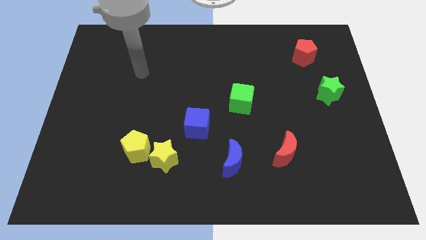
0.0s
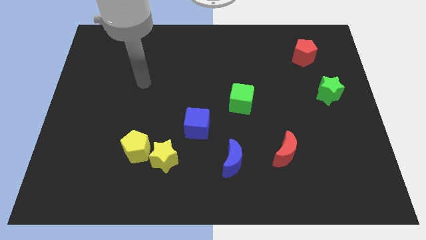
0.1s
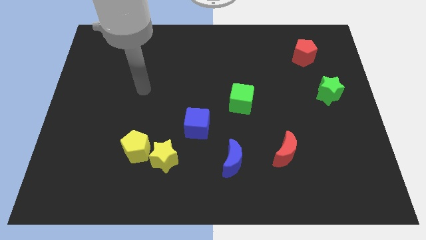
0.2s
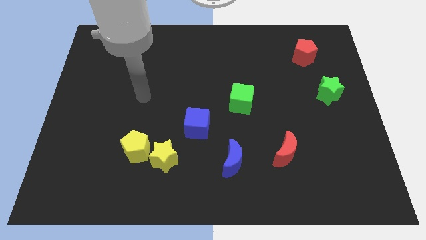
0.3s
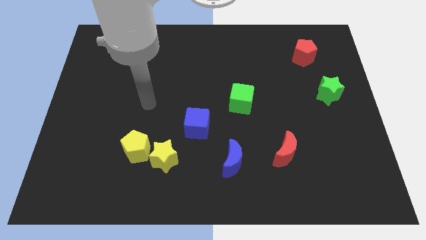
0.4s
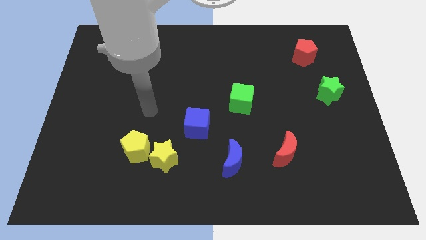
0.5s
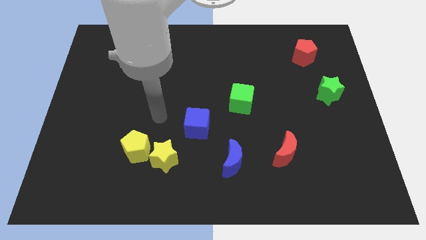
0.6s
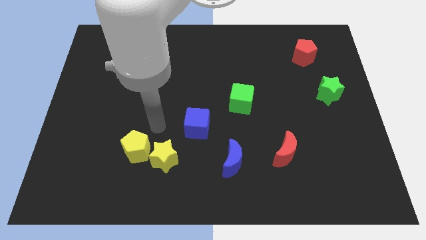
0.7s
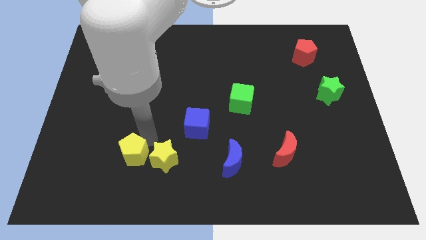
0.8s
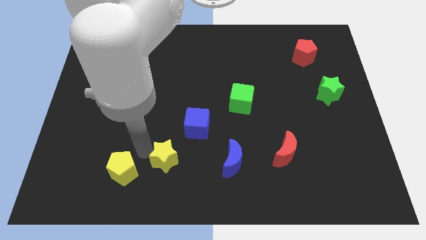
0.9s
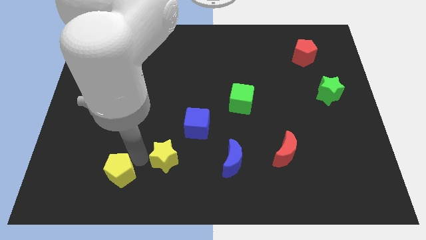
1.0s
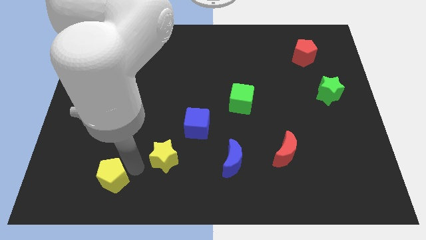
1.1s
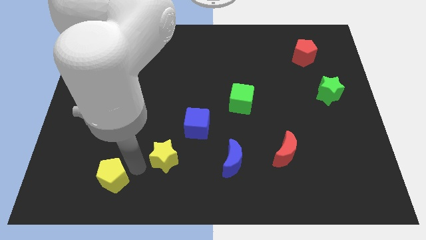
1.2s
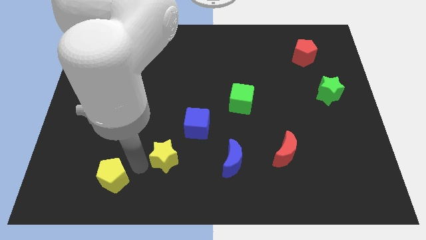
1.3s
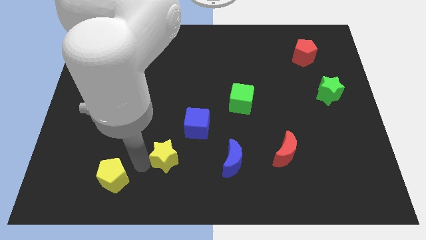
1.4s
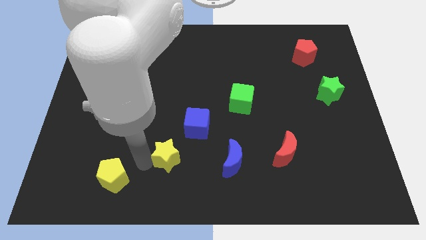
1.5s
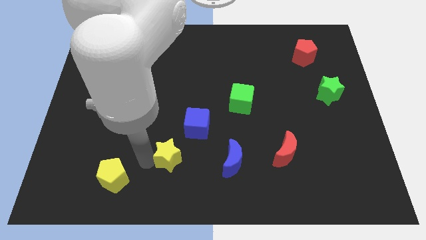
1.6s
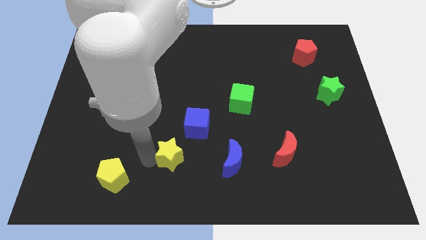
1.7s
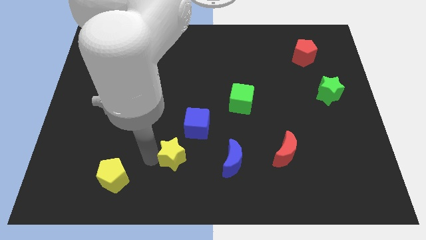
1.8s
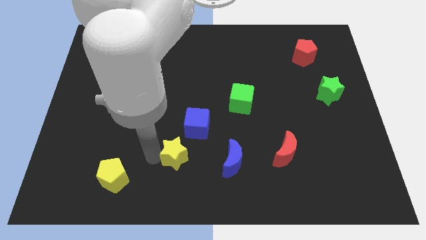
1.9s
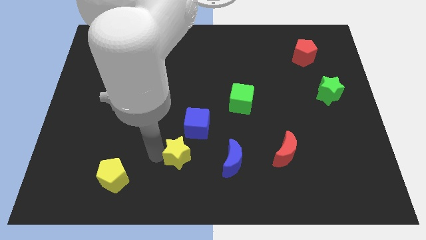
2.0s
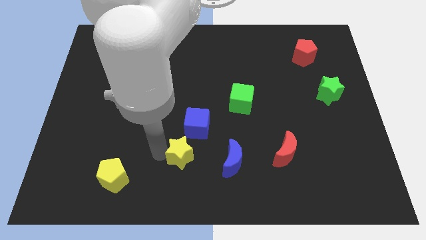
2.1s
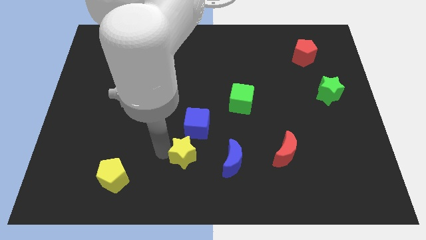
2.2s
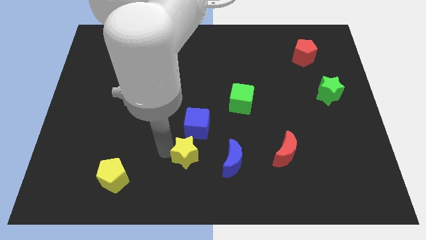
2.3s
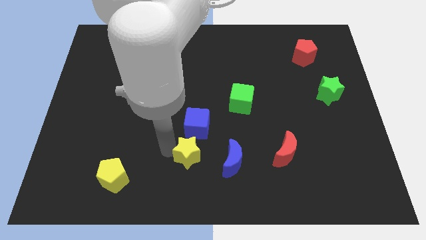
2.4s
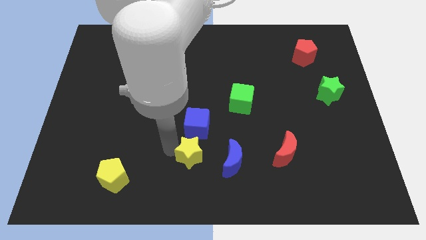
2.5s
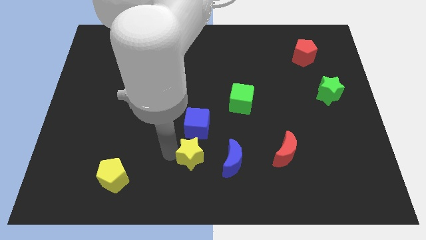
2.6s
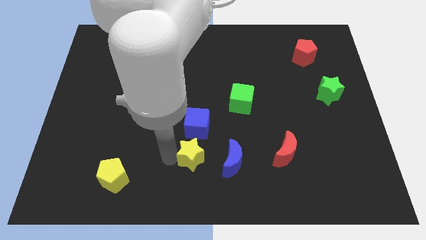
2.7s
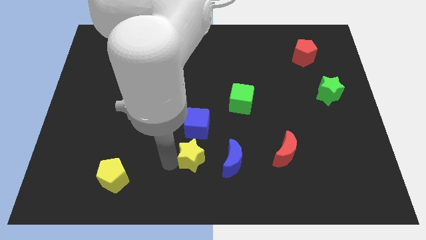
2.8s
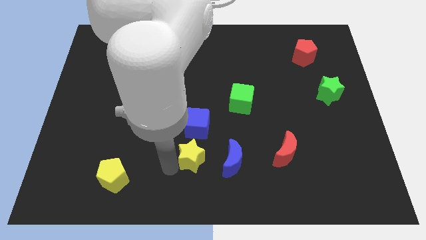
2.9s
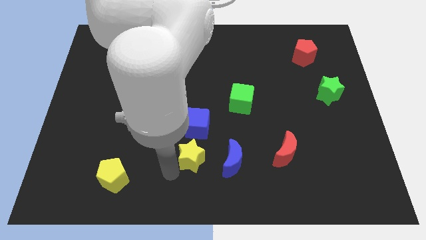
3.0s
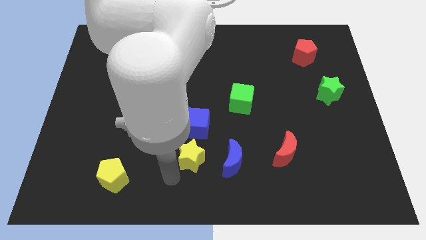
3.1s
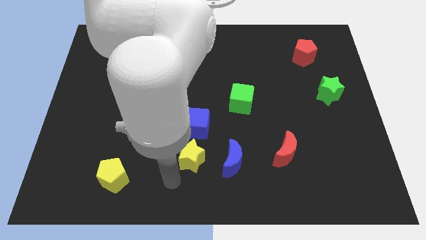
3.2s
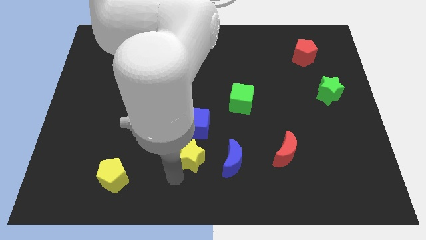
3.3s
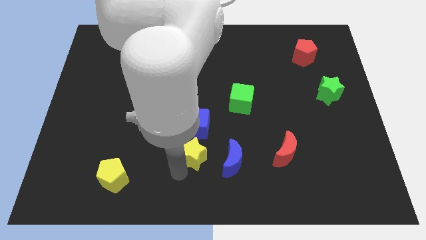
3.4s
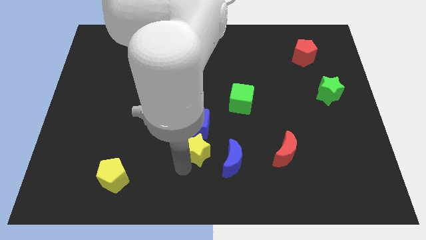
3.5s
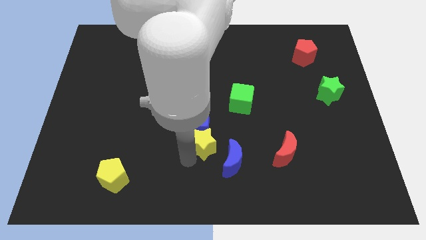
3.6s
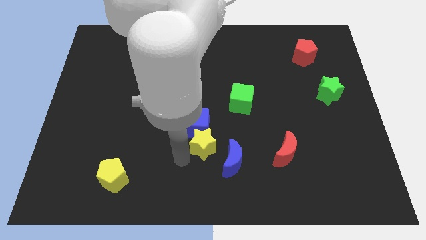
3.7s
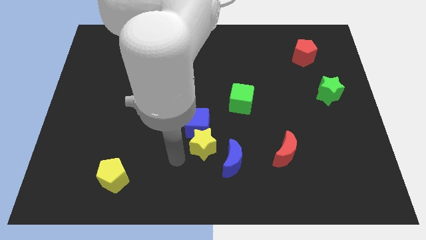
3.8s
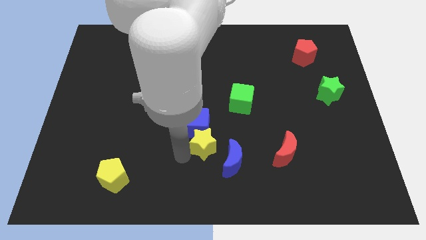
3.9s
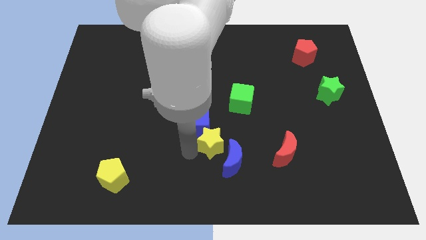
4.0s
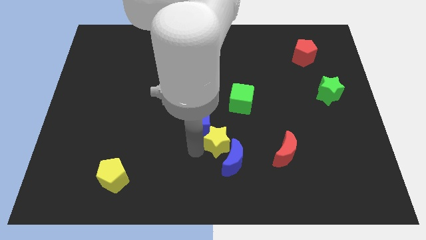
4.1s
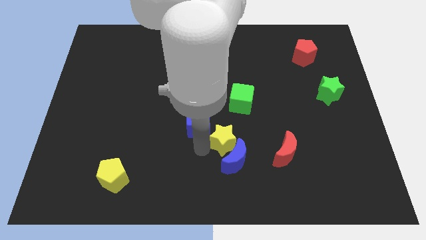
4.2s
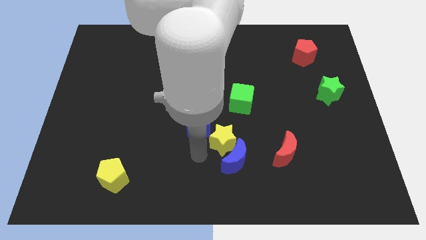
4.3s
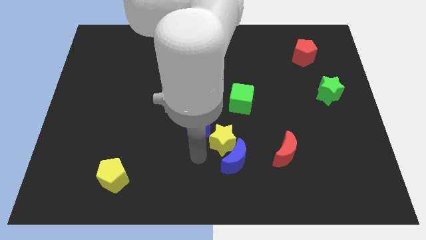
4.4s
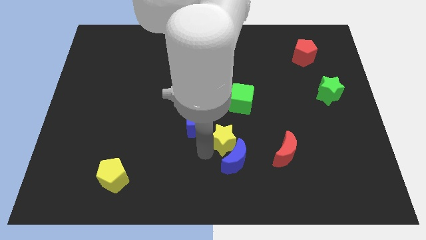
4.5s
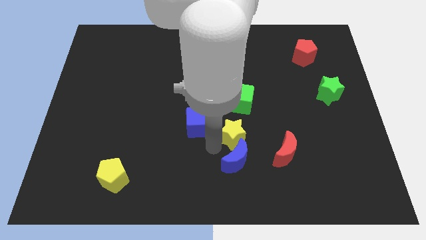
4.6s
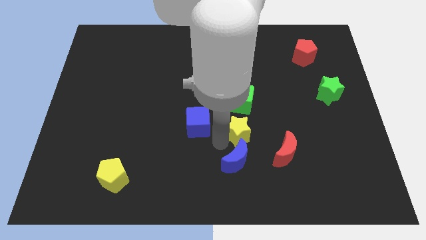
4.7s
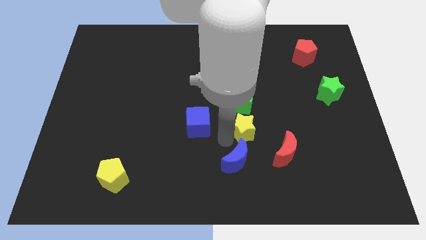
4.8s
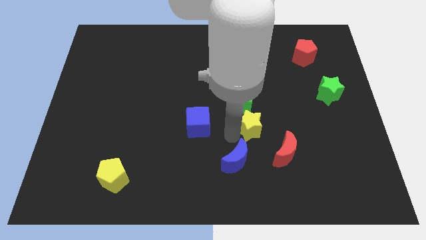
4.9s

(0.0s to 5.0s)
move the yellow star to the bottom right of the green cube

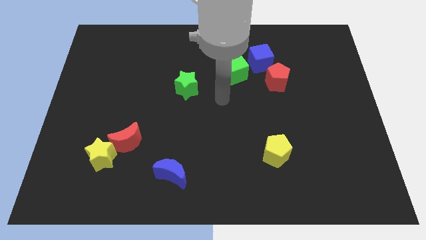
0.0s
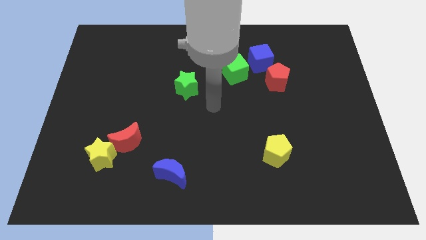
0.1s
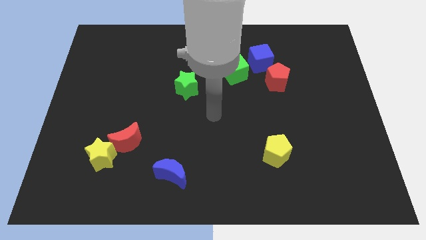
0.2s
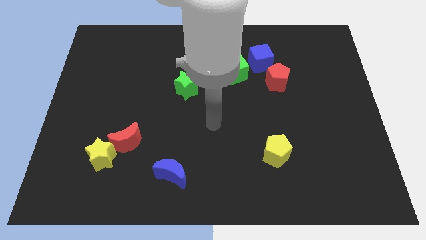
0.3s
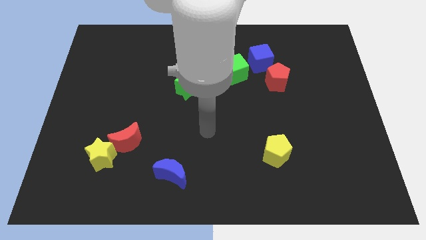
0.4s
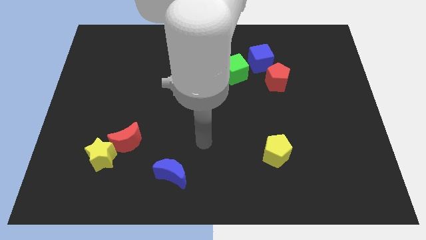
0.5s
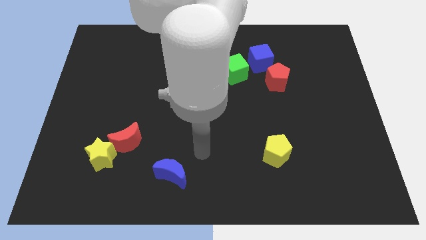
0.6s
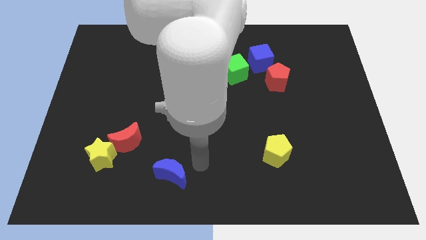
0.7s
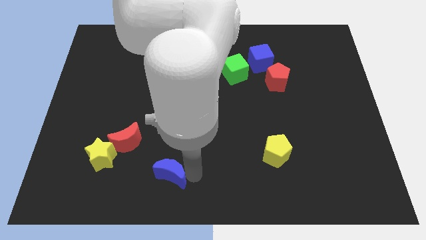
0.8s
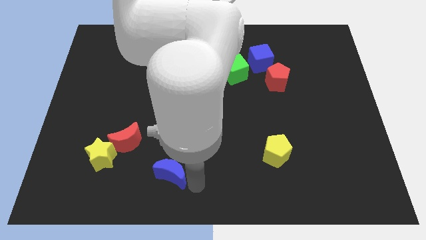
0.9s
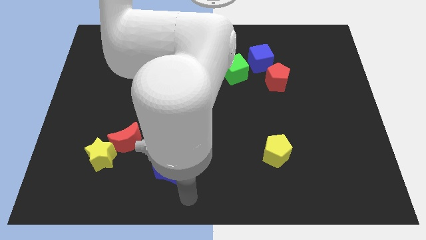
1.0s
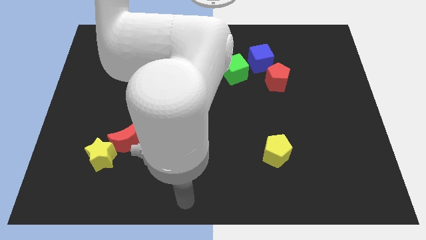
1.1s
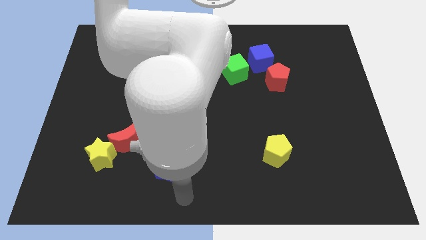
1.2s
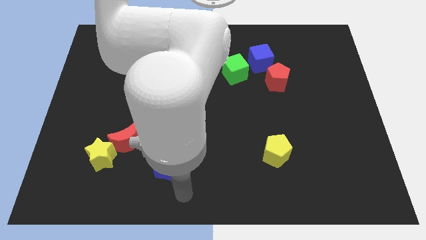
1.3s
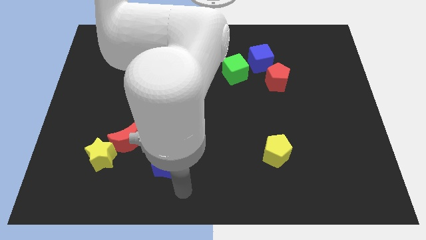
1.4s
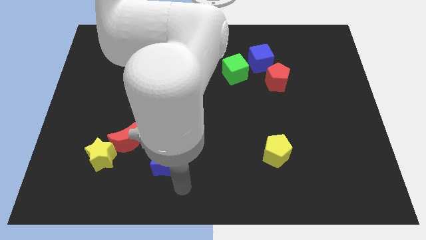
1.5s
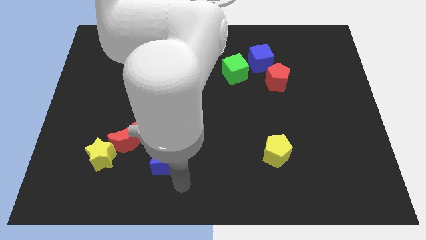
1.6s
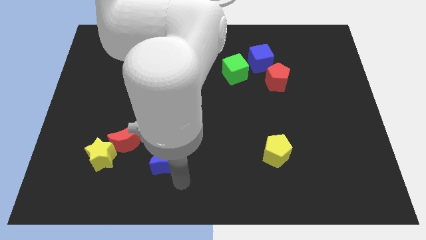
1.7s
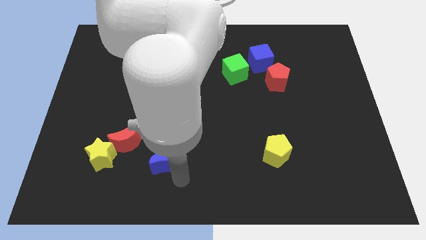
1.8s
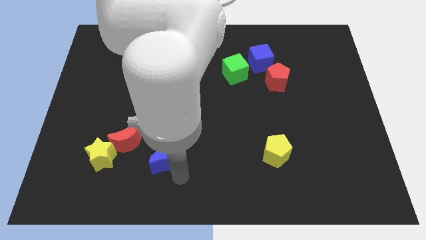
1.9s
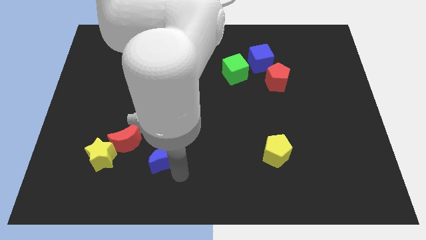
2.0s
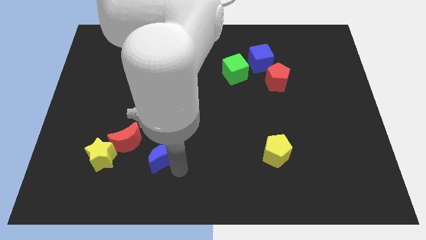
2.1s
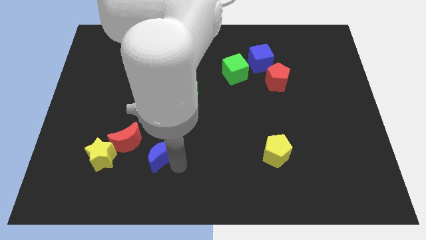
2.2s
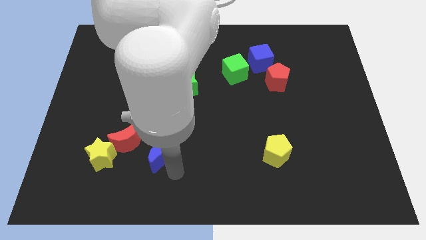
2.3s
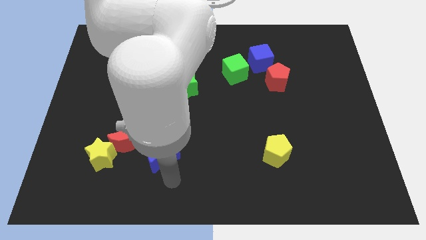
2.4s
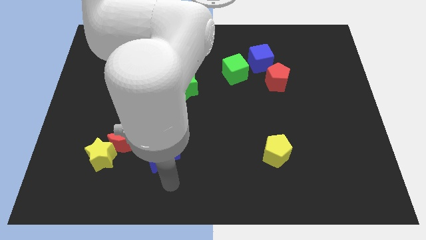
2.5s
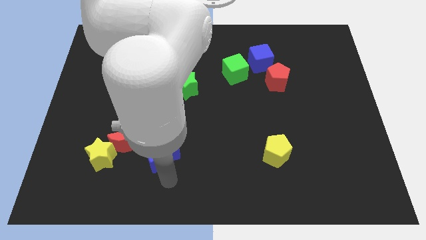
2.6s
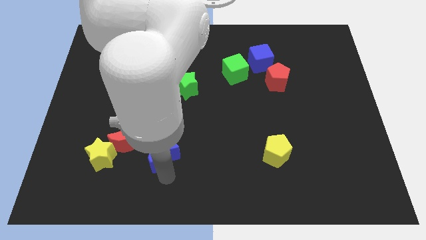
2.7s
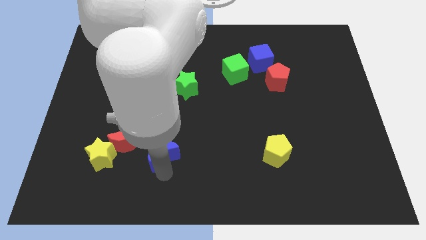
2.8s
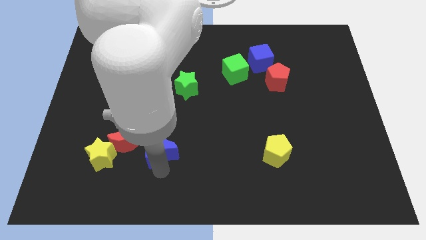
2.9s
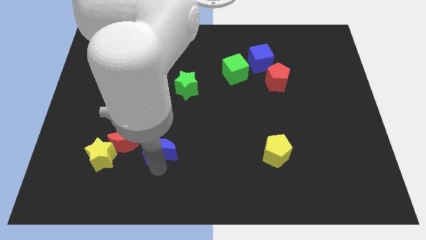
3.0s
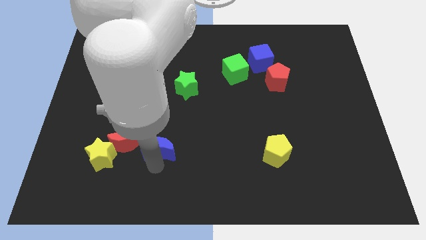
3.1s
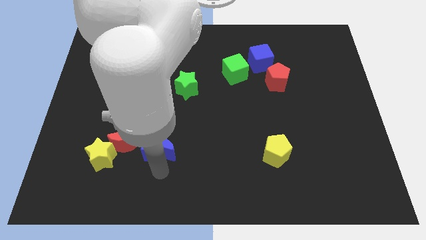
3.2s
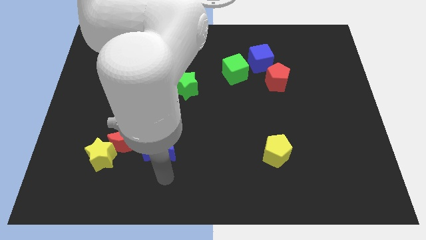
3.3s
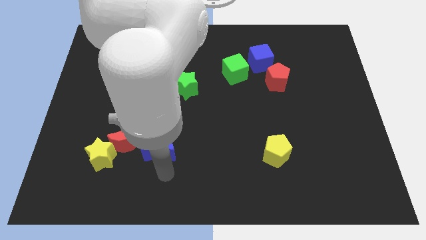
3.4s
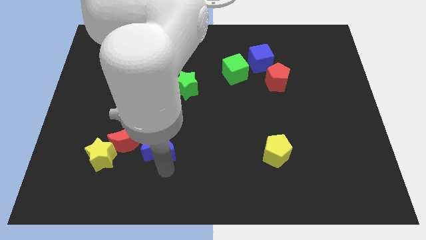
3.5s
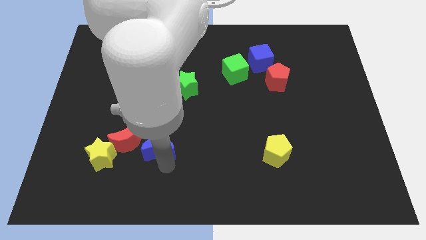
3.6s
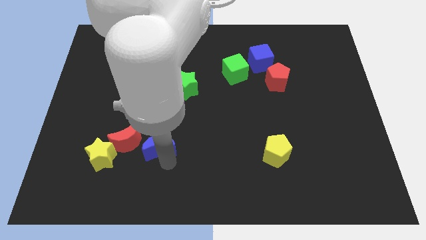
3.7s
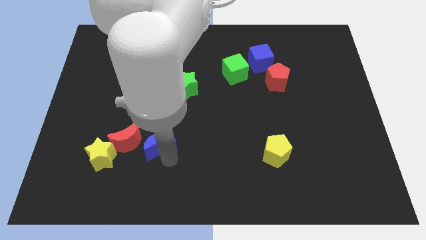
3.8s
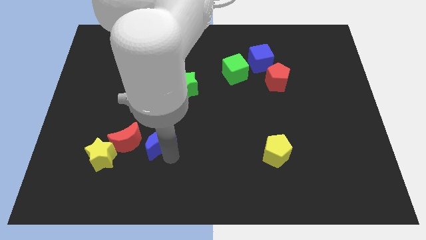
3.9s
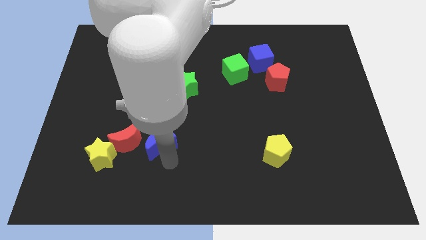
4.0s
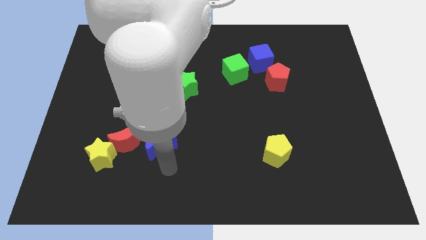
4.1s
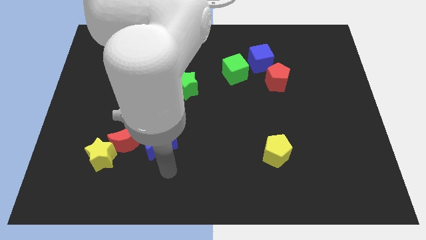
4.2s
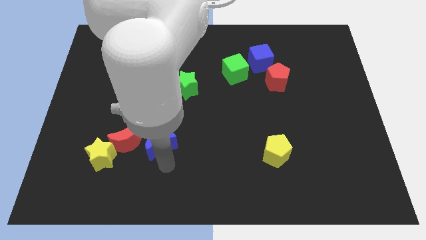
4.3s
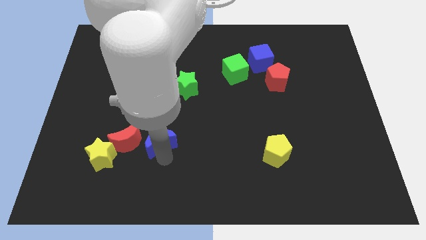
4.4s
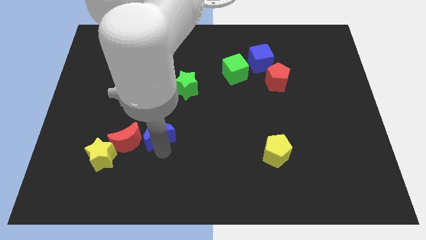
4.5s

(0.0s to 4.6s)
slide the blue moon to the top right of the red moon
